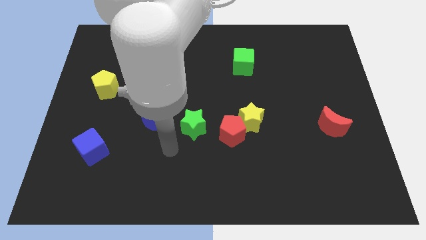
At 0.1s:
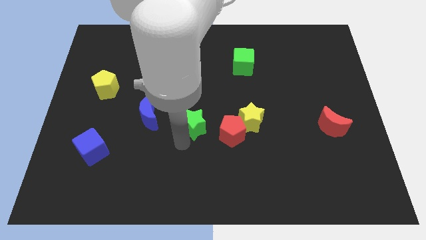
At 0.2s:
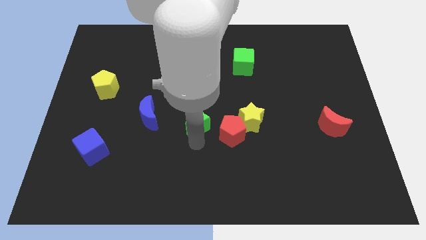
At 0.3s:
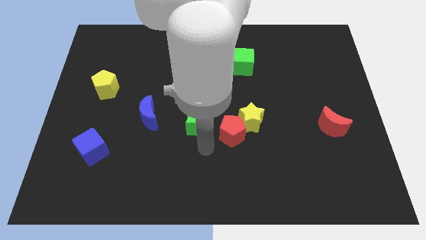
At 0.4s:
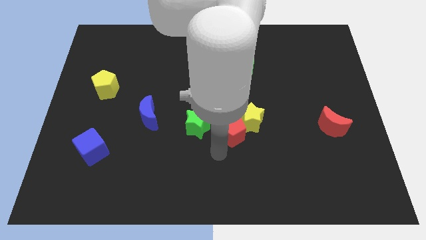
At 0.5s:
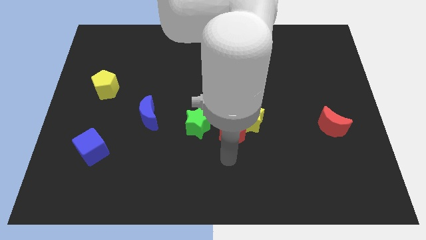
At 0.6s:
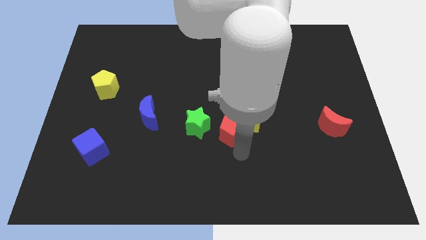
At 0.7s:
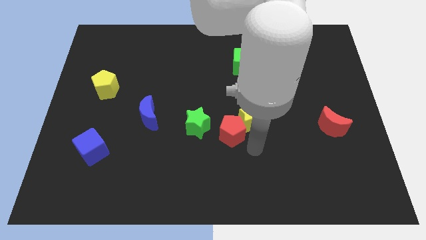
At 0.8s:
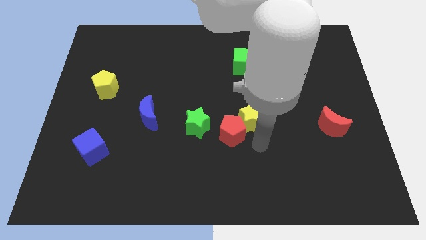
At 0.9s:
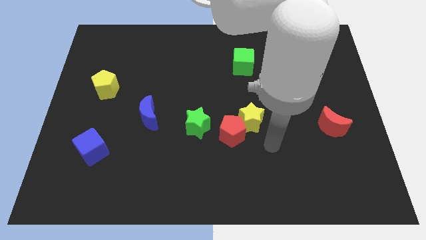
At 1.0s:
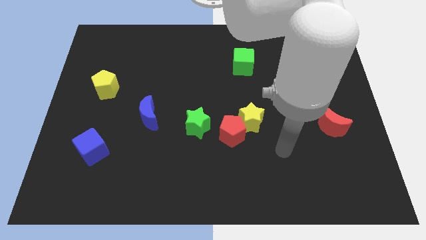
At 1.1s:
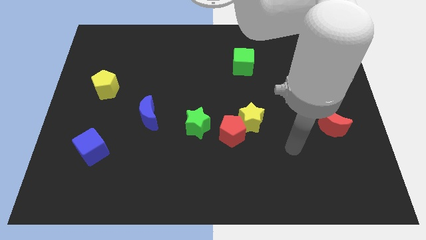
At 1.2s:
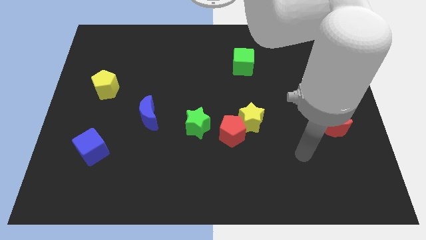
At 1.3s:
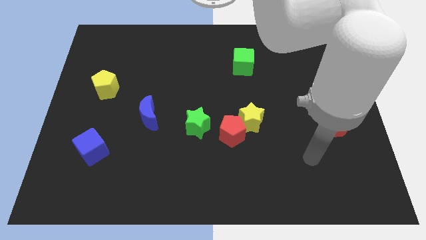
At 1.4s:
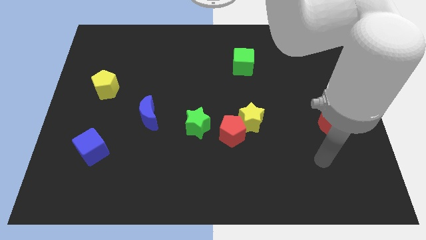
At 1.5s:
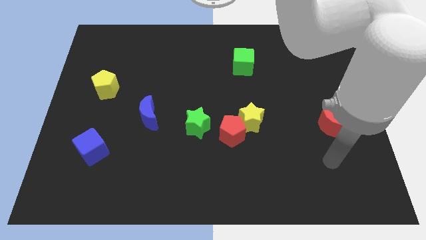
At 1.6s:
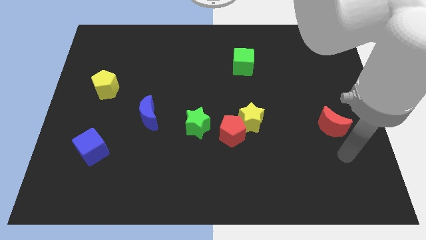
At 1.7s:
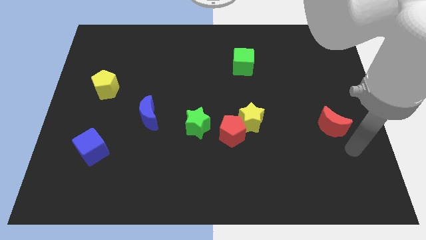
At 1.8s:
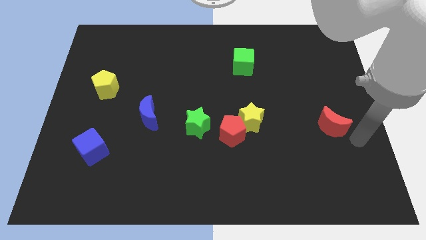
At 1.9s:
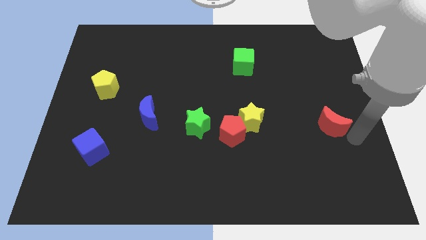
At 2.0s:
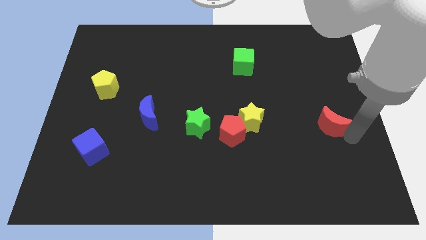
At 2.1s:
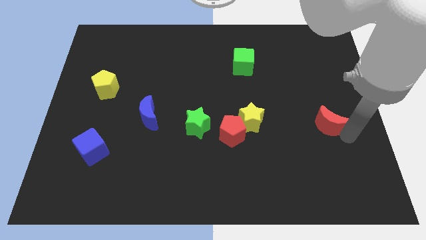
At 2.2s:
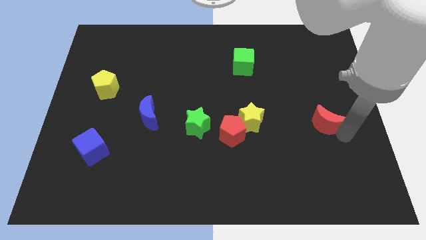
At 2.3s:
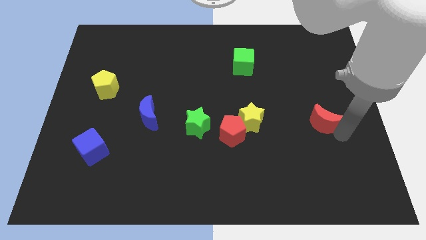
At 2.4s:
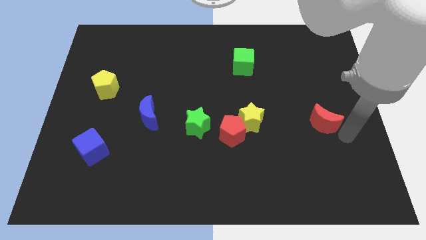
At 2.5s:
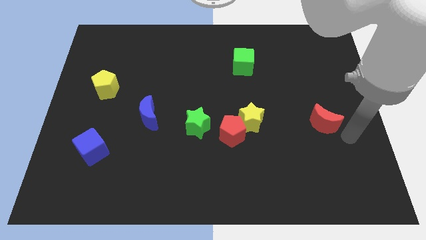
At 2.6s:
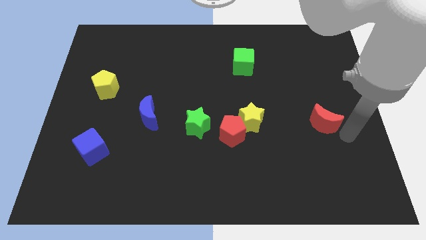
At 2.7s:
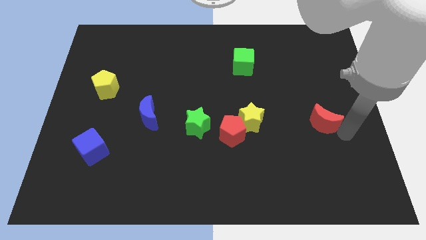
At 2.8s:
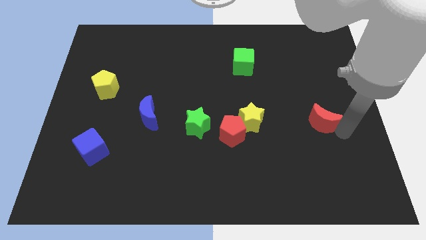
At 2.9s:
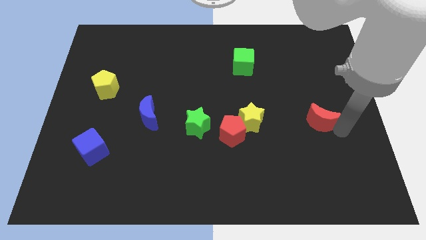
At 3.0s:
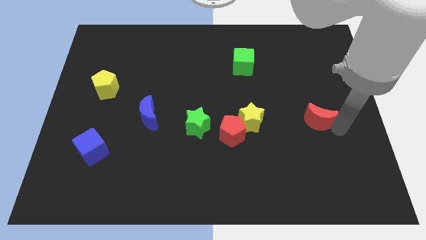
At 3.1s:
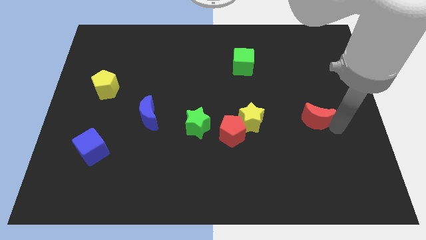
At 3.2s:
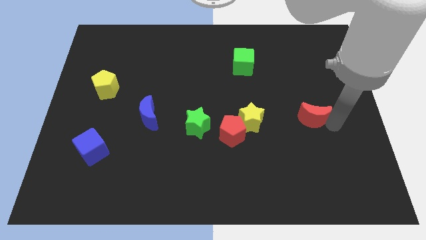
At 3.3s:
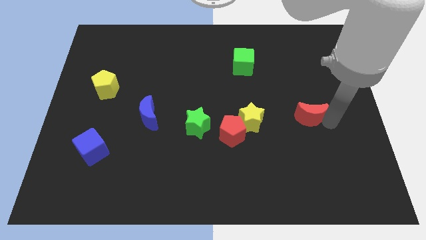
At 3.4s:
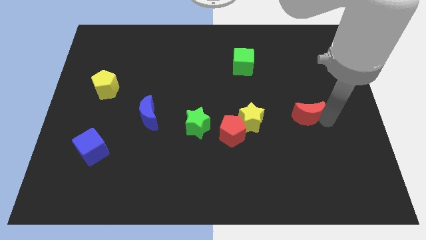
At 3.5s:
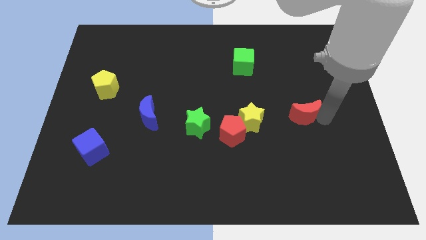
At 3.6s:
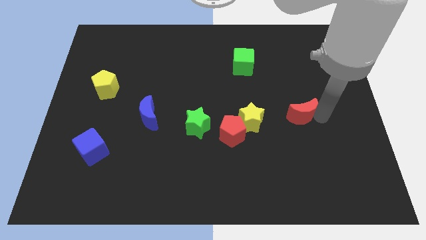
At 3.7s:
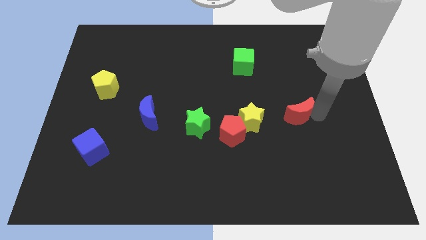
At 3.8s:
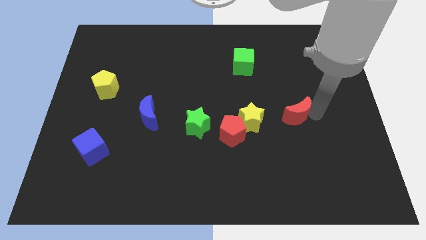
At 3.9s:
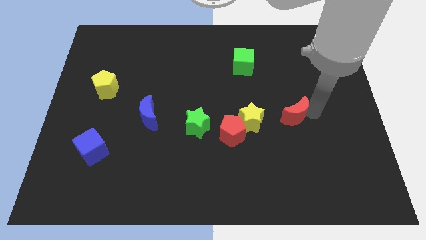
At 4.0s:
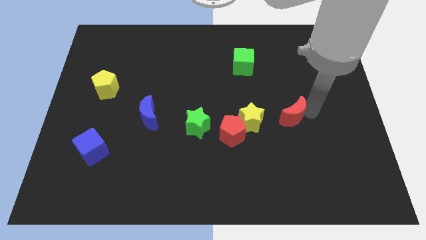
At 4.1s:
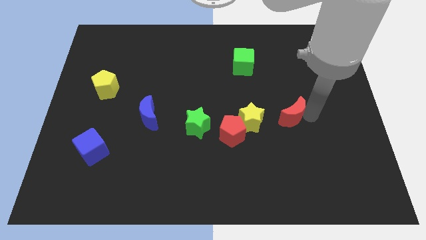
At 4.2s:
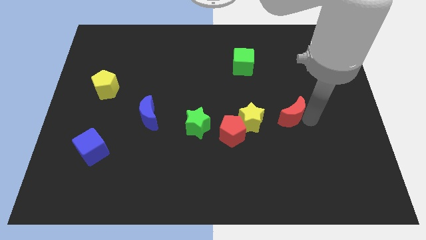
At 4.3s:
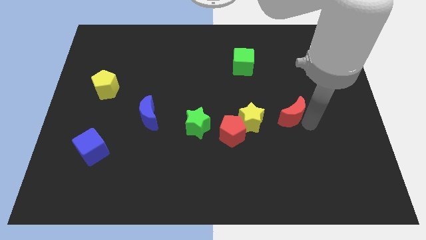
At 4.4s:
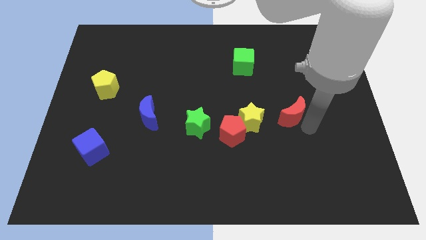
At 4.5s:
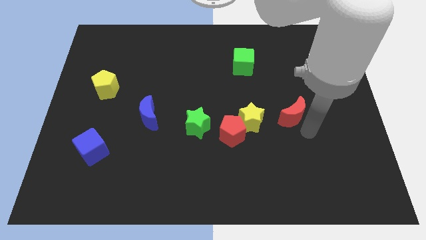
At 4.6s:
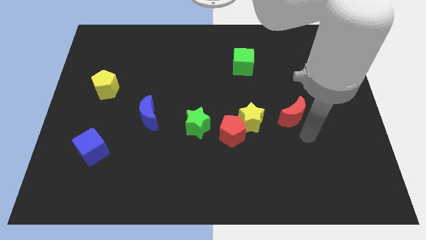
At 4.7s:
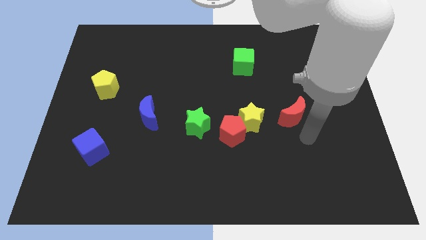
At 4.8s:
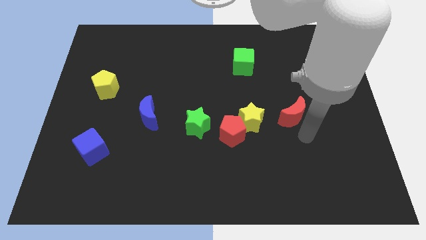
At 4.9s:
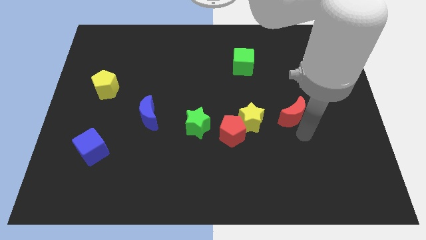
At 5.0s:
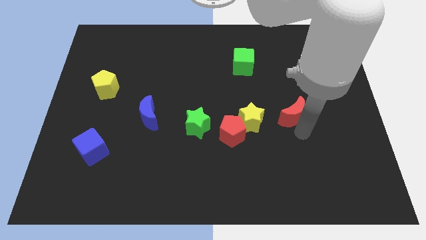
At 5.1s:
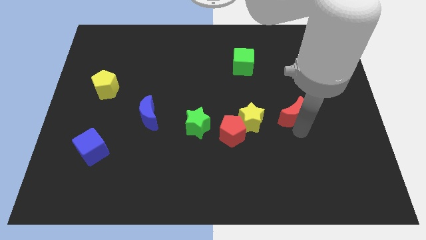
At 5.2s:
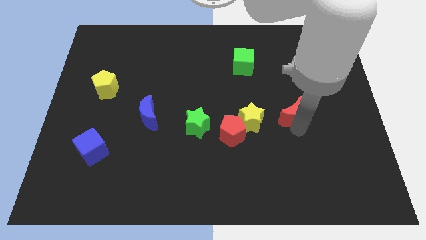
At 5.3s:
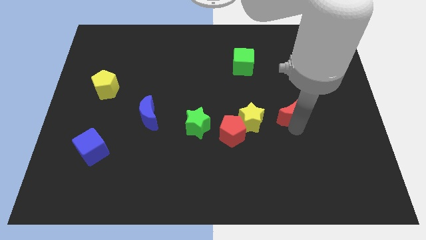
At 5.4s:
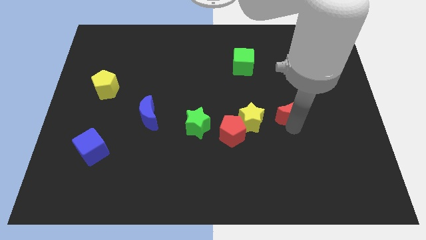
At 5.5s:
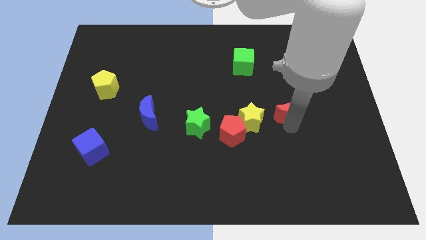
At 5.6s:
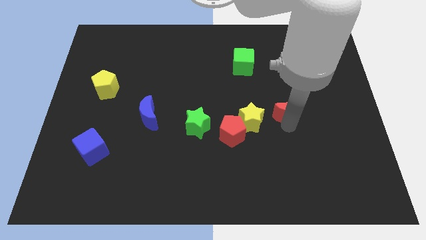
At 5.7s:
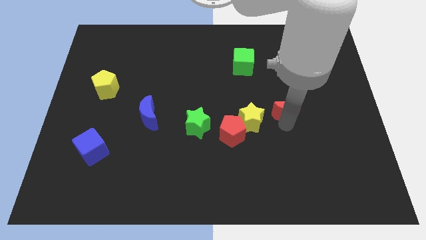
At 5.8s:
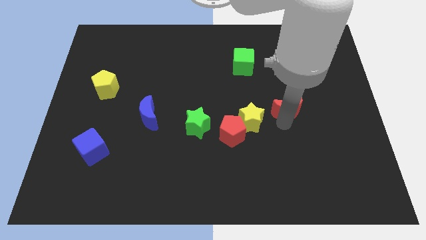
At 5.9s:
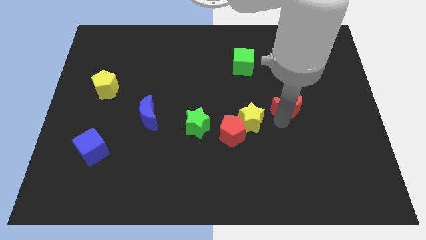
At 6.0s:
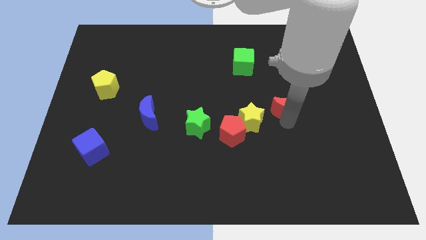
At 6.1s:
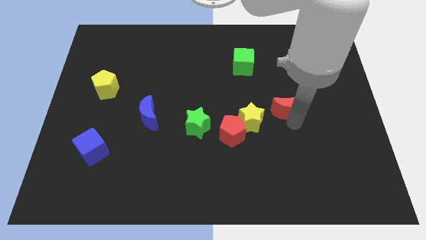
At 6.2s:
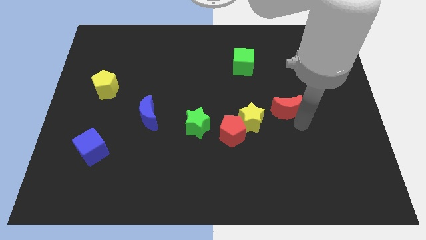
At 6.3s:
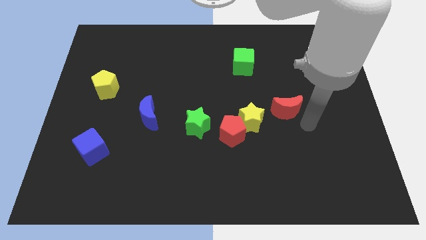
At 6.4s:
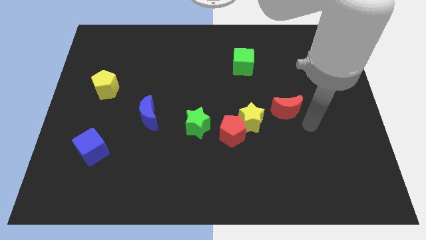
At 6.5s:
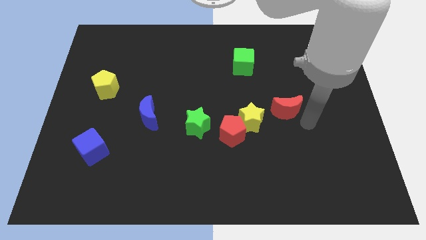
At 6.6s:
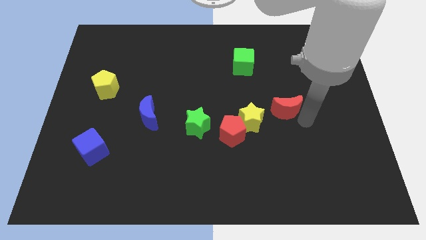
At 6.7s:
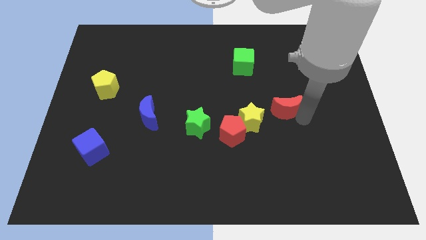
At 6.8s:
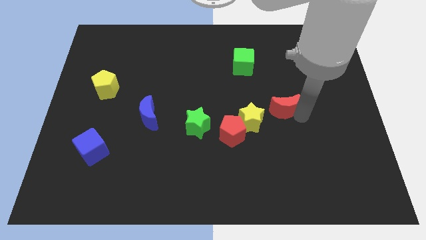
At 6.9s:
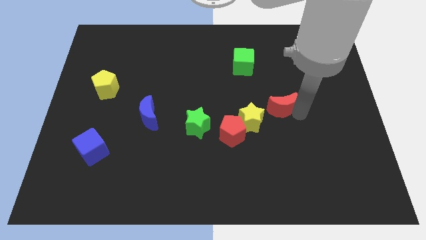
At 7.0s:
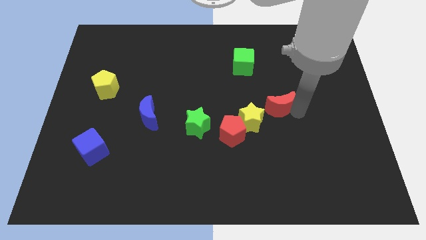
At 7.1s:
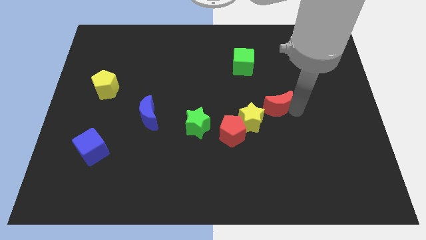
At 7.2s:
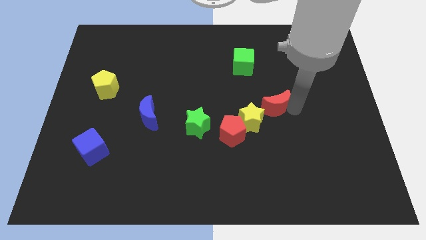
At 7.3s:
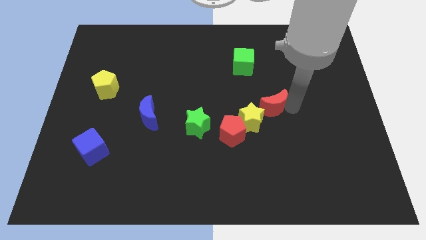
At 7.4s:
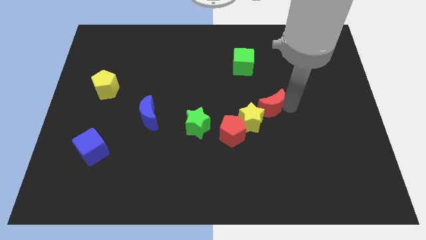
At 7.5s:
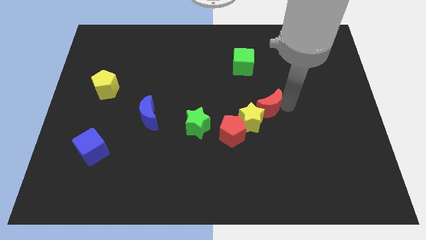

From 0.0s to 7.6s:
slide the red moon to the top side of the yellow star
